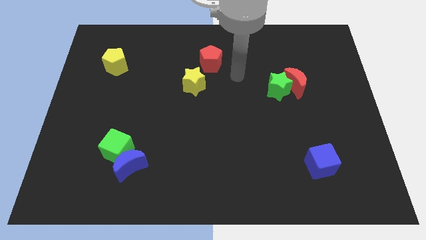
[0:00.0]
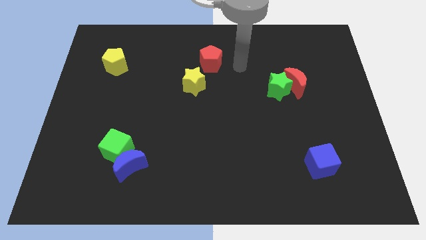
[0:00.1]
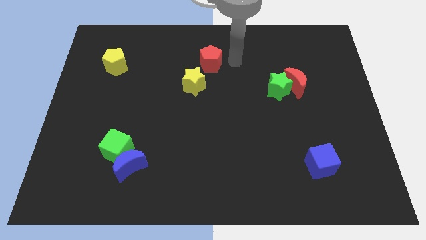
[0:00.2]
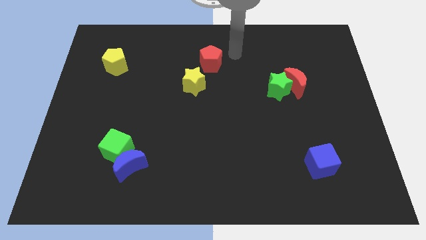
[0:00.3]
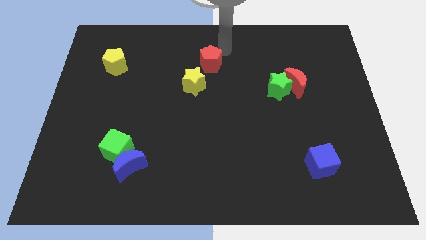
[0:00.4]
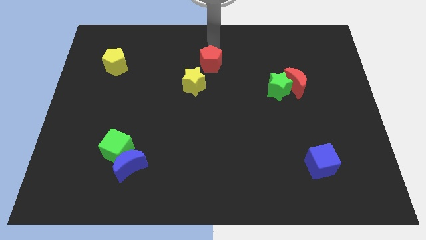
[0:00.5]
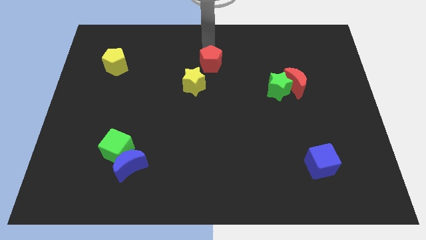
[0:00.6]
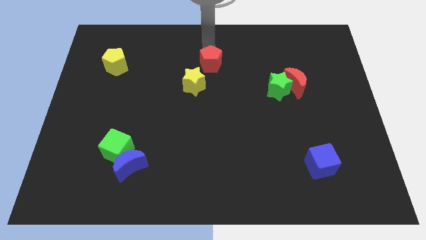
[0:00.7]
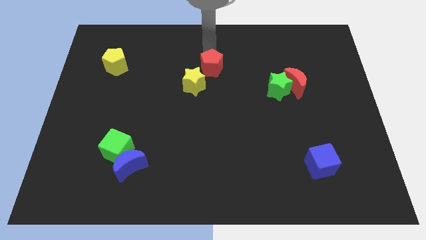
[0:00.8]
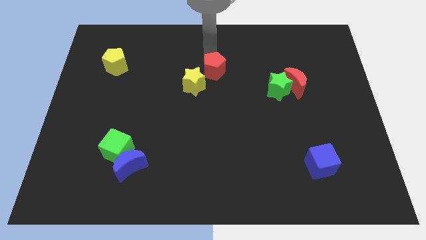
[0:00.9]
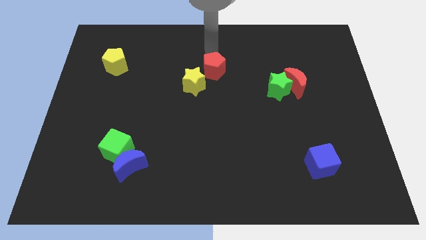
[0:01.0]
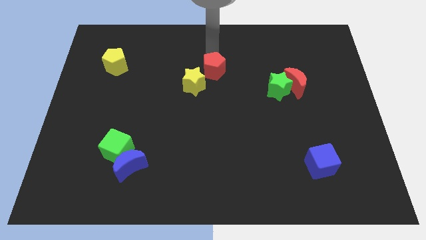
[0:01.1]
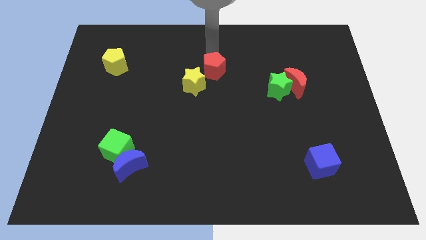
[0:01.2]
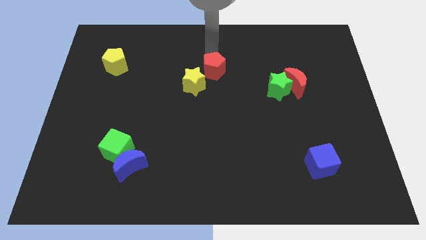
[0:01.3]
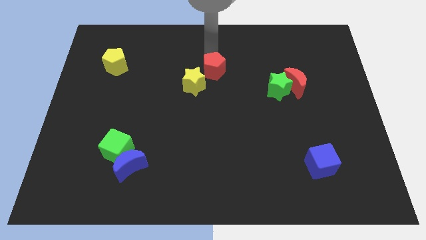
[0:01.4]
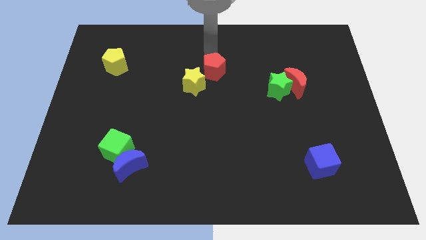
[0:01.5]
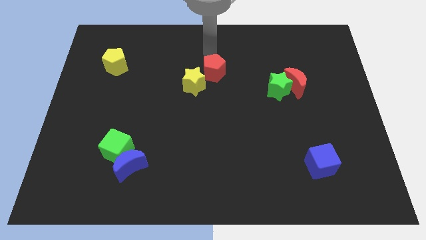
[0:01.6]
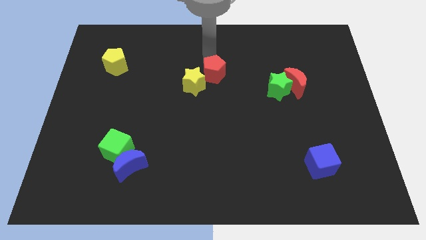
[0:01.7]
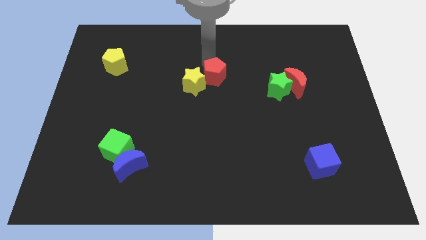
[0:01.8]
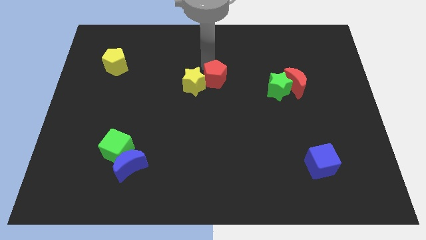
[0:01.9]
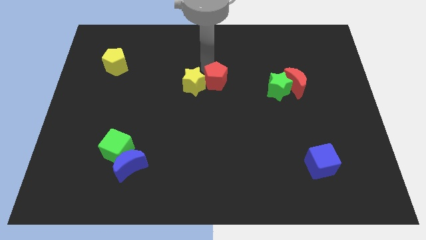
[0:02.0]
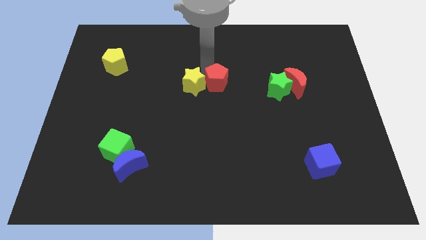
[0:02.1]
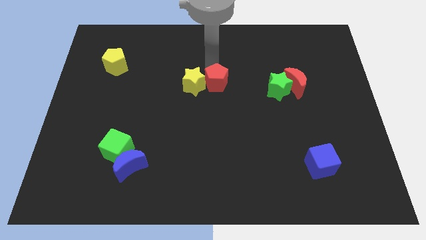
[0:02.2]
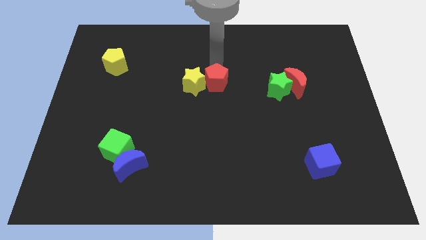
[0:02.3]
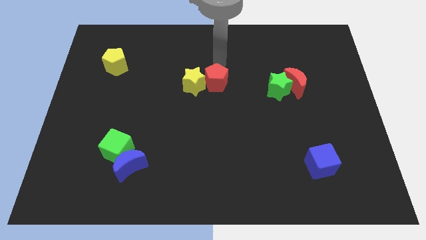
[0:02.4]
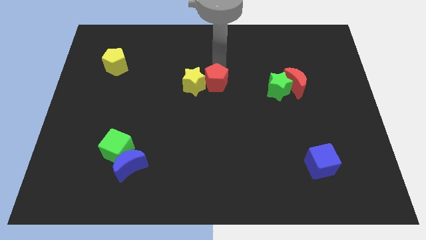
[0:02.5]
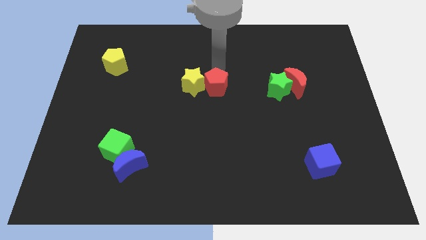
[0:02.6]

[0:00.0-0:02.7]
slightly move the red pentagon down

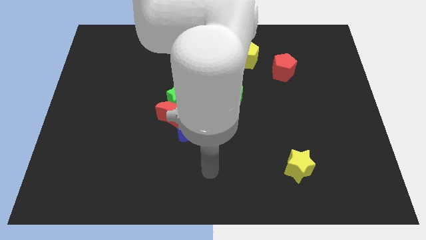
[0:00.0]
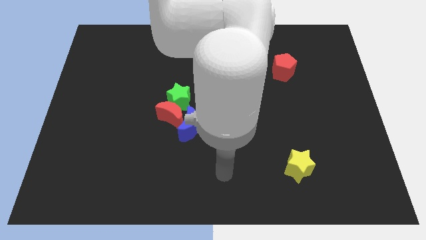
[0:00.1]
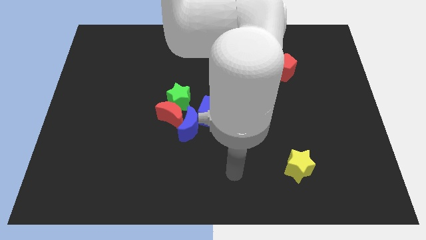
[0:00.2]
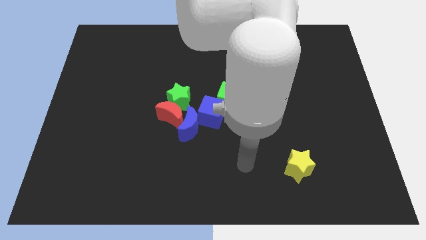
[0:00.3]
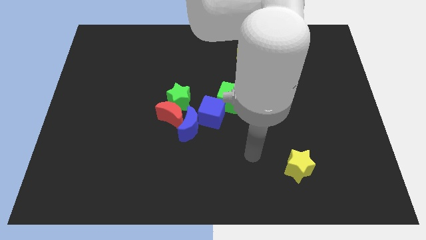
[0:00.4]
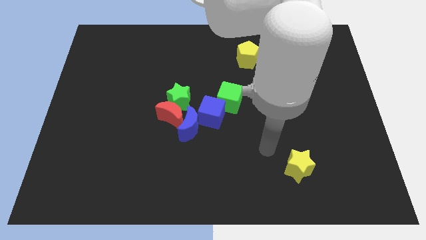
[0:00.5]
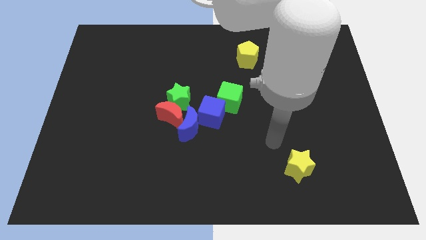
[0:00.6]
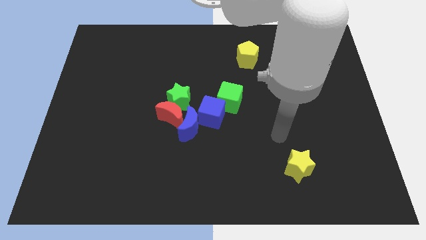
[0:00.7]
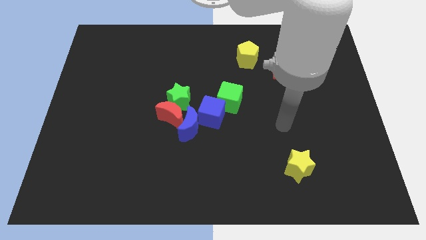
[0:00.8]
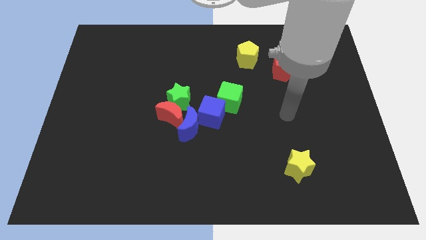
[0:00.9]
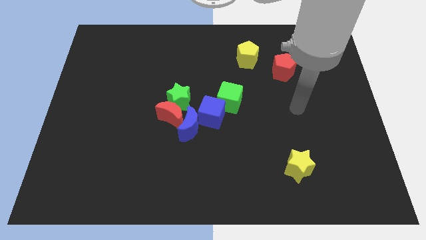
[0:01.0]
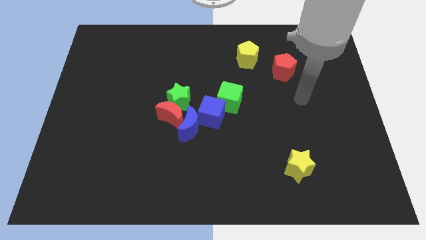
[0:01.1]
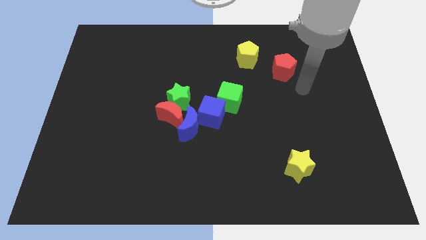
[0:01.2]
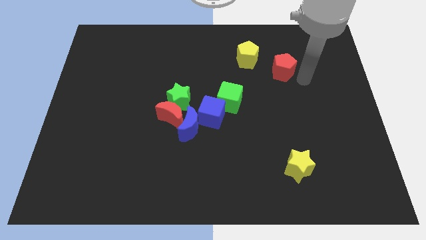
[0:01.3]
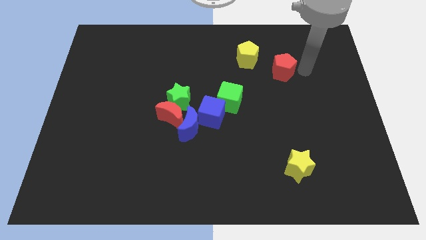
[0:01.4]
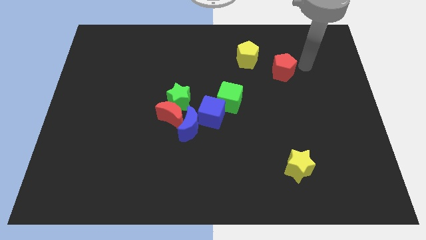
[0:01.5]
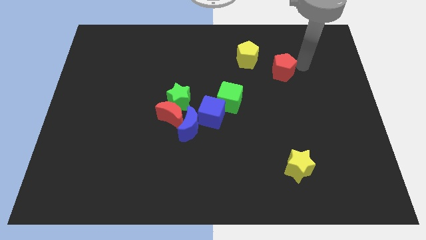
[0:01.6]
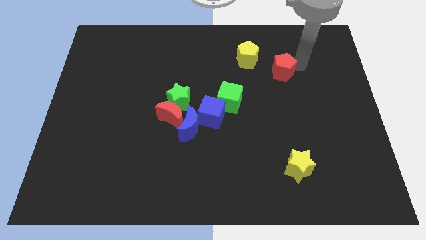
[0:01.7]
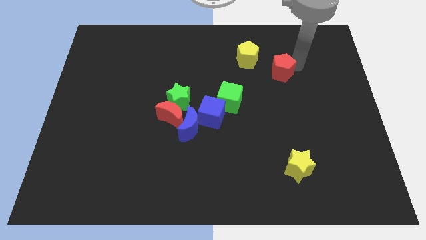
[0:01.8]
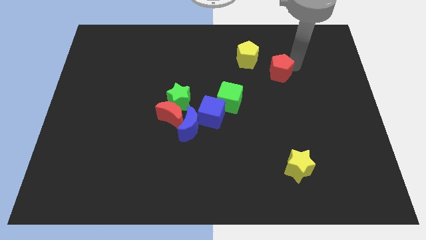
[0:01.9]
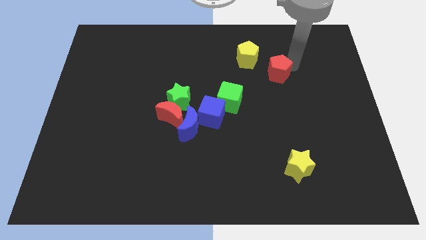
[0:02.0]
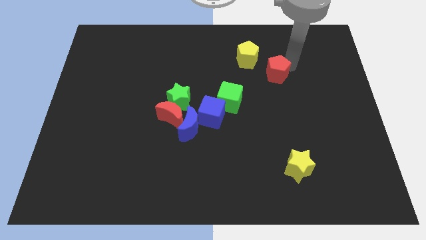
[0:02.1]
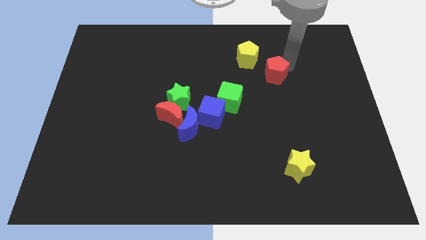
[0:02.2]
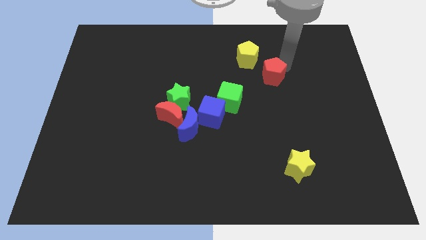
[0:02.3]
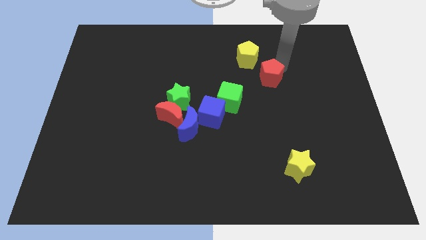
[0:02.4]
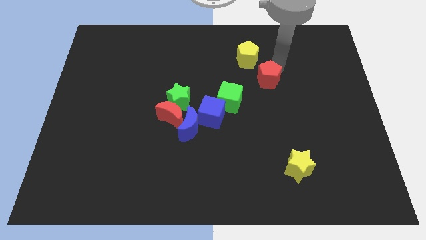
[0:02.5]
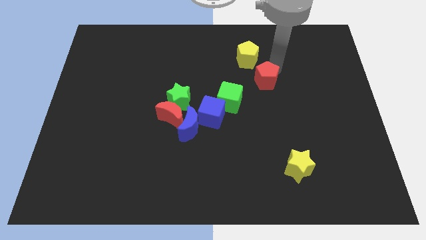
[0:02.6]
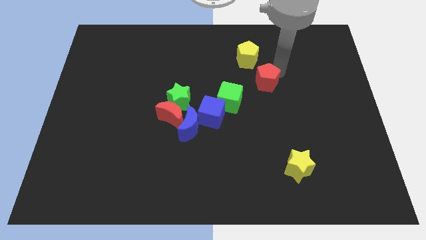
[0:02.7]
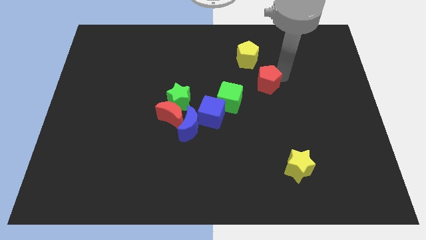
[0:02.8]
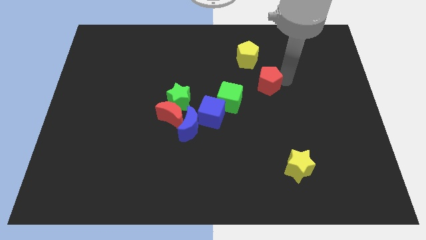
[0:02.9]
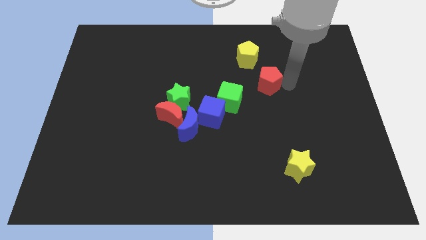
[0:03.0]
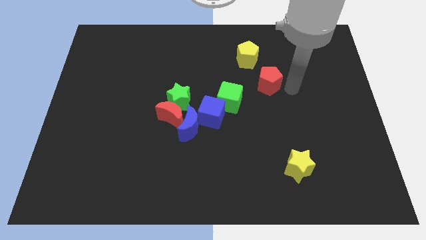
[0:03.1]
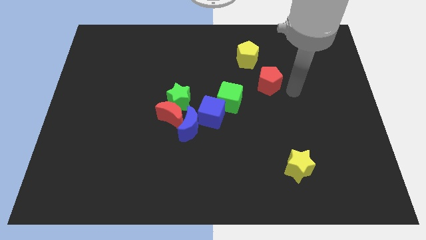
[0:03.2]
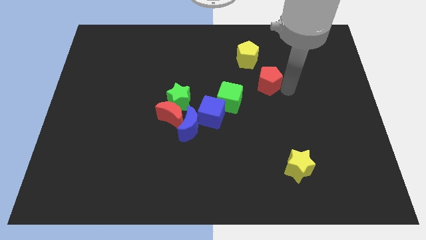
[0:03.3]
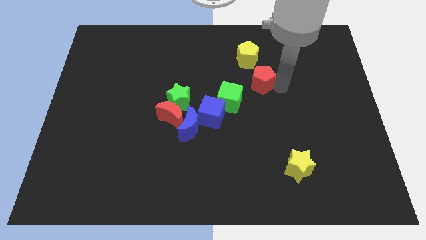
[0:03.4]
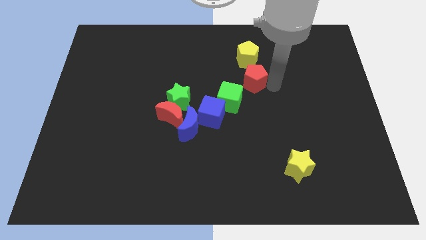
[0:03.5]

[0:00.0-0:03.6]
push the red pentagon slightly to the left

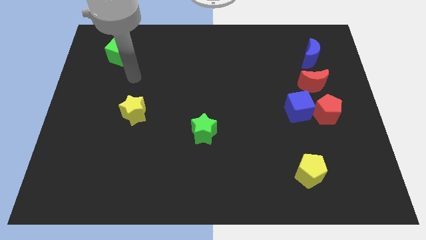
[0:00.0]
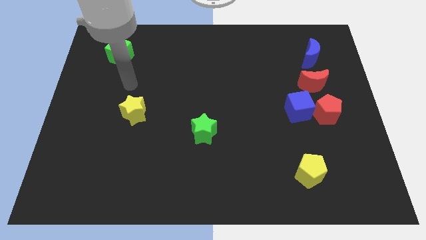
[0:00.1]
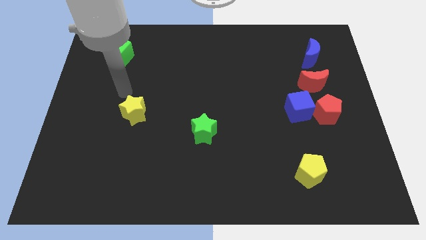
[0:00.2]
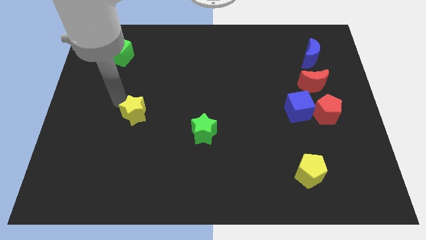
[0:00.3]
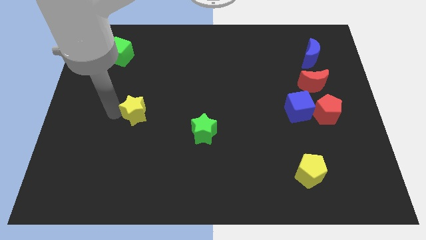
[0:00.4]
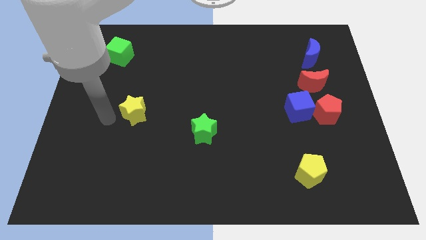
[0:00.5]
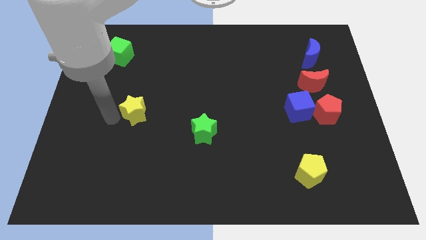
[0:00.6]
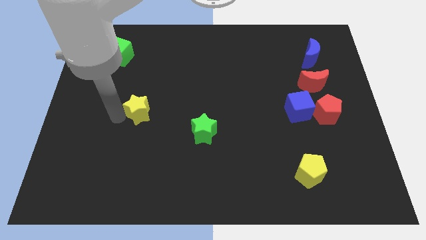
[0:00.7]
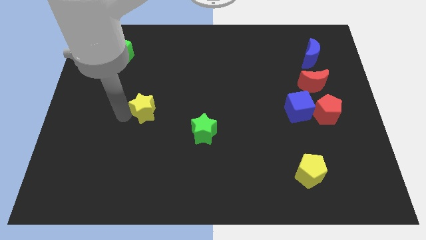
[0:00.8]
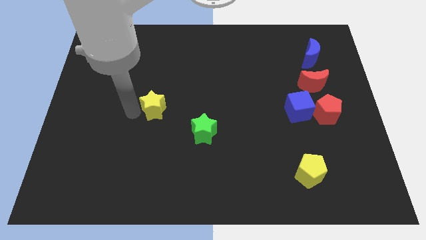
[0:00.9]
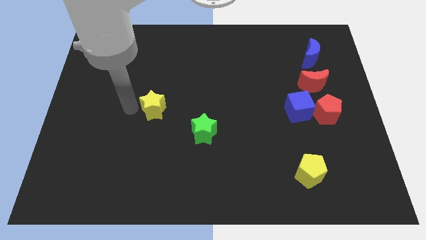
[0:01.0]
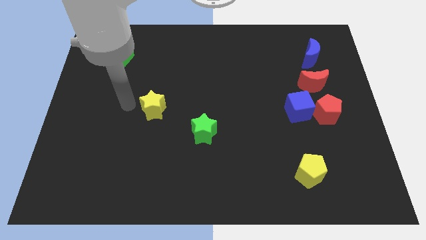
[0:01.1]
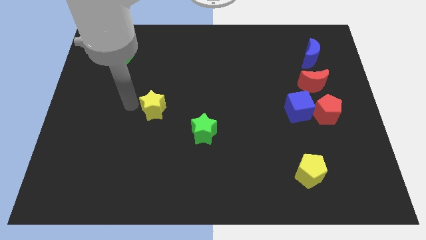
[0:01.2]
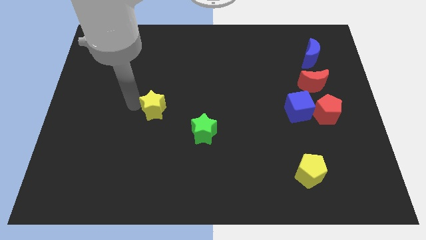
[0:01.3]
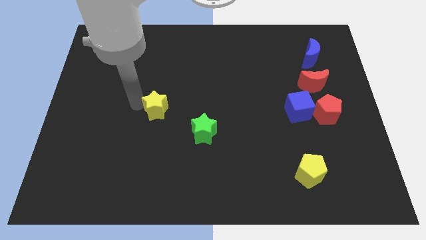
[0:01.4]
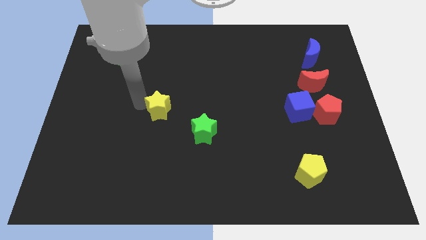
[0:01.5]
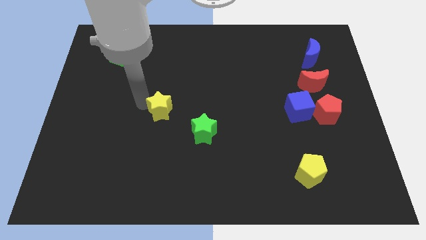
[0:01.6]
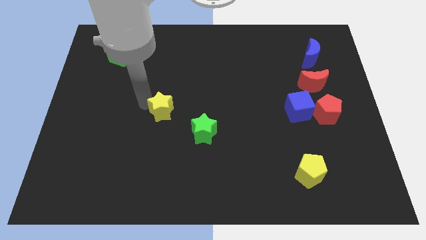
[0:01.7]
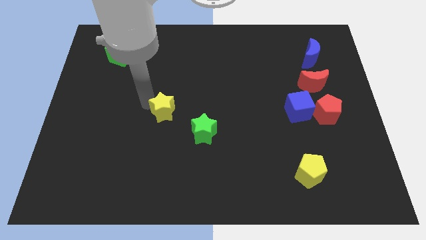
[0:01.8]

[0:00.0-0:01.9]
move the yellow star to the right somewhat

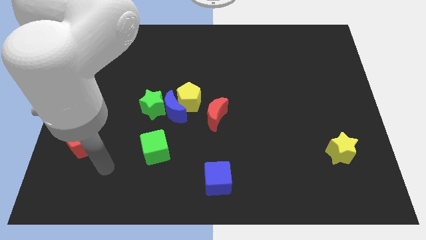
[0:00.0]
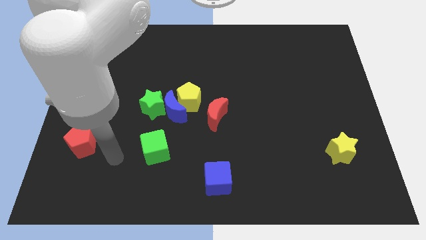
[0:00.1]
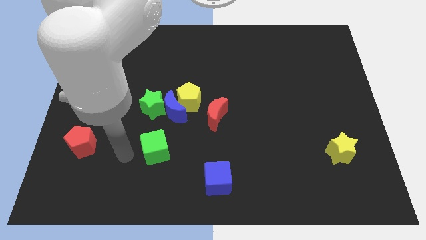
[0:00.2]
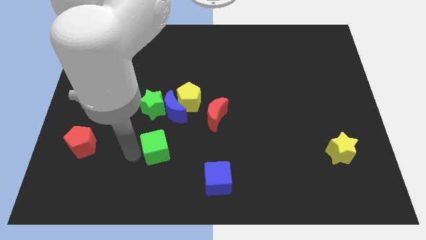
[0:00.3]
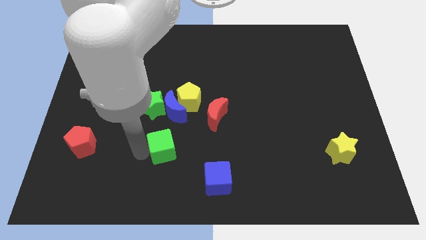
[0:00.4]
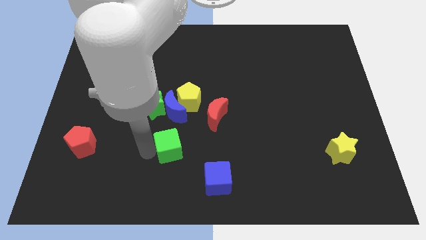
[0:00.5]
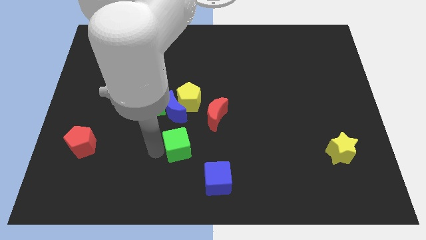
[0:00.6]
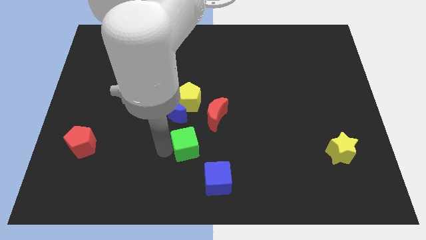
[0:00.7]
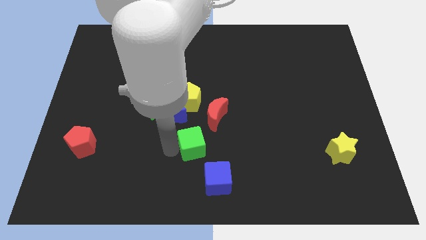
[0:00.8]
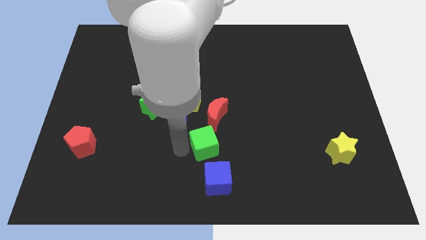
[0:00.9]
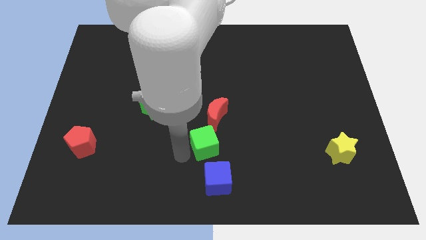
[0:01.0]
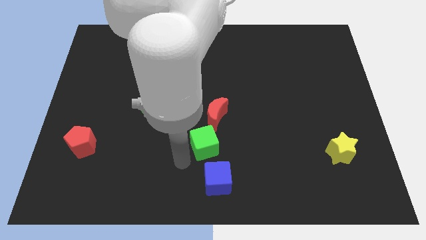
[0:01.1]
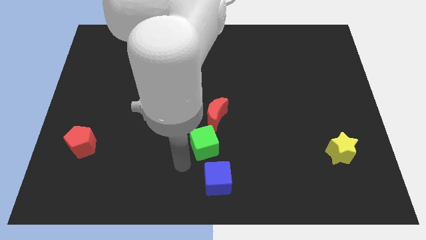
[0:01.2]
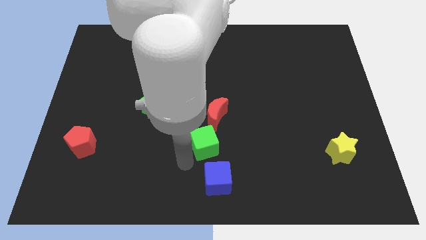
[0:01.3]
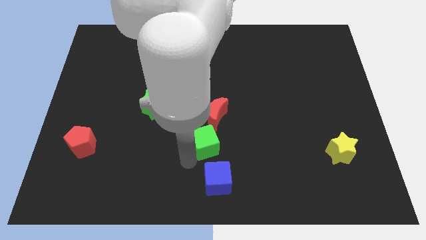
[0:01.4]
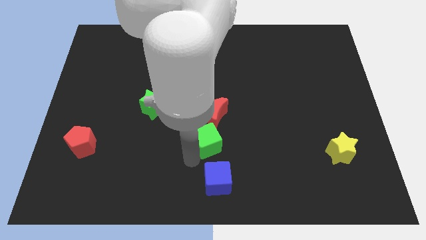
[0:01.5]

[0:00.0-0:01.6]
push the green cube upwards and then right slightly
